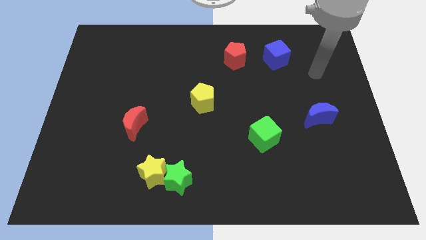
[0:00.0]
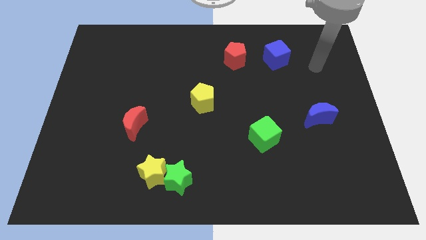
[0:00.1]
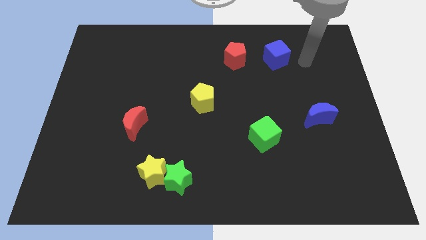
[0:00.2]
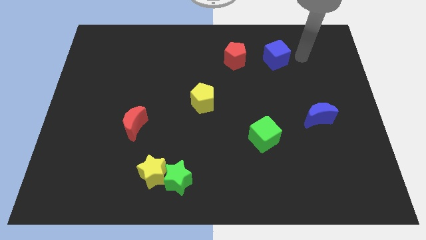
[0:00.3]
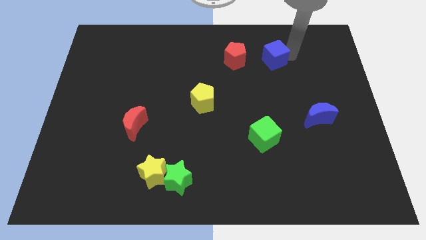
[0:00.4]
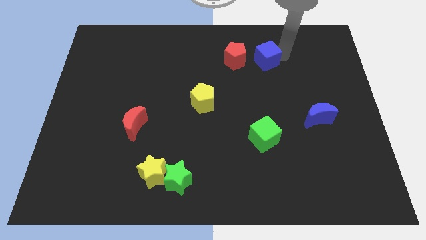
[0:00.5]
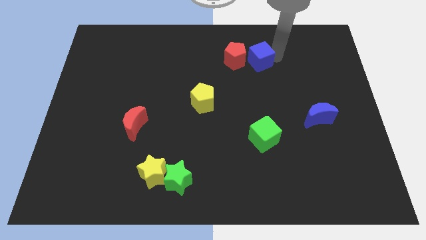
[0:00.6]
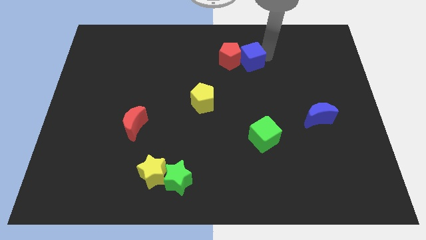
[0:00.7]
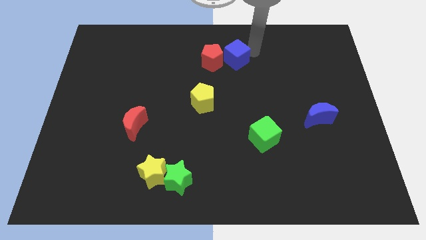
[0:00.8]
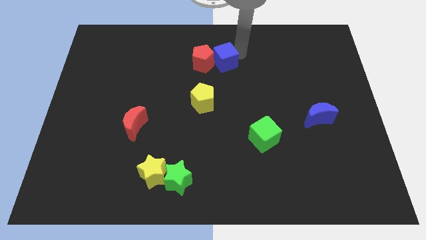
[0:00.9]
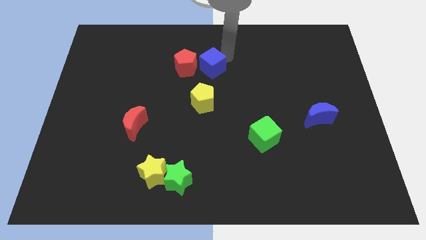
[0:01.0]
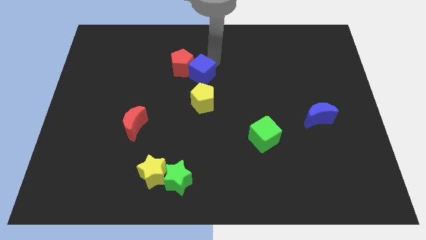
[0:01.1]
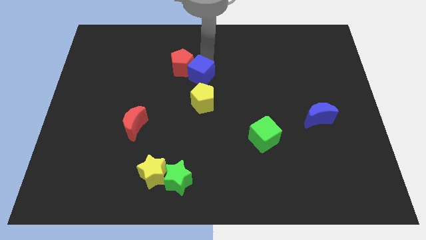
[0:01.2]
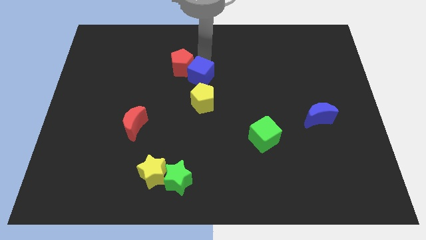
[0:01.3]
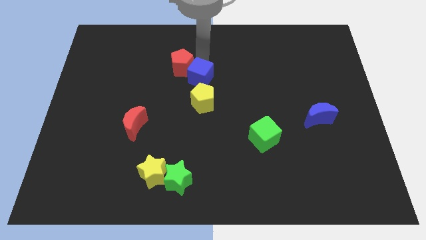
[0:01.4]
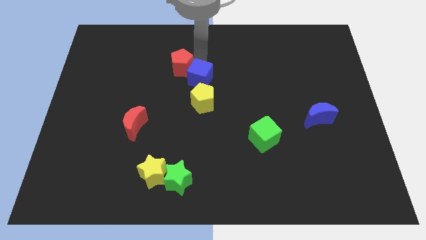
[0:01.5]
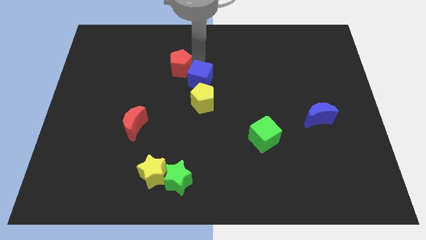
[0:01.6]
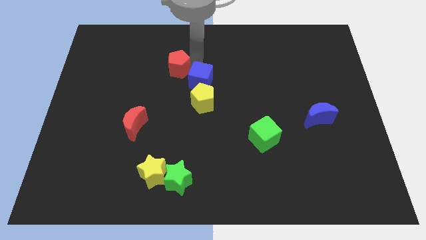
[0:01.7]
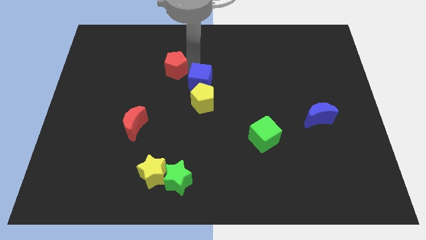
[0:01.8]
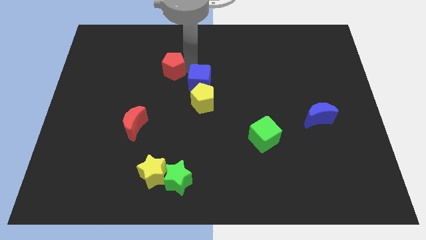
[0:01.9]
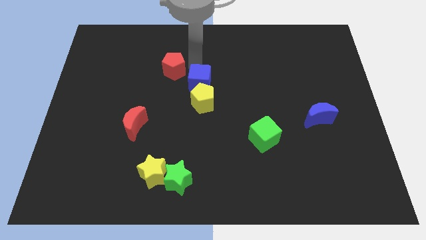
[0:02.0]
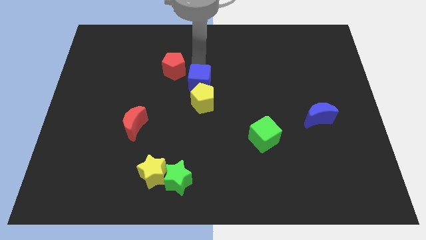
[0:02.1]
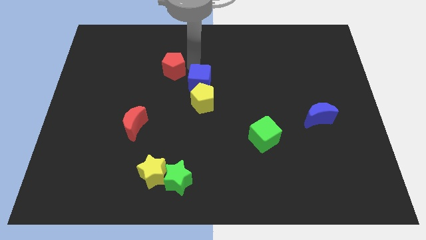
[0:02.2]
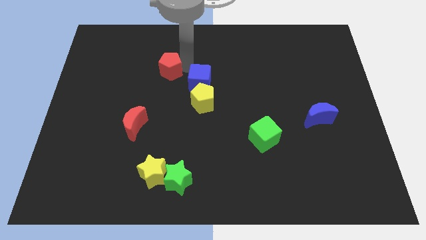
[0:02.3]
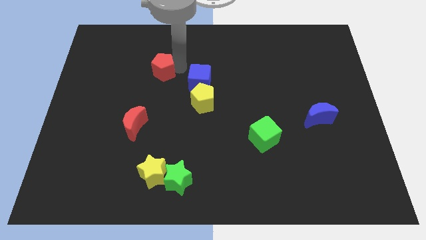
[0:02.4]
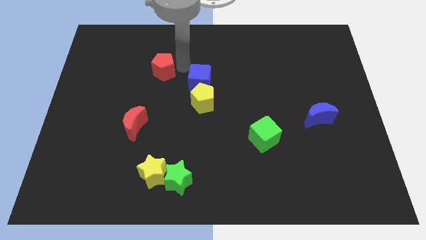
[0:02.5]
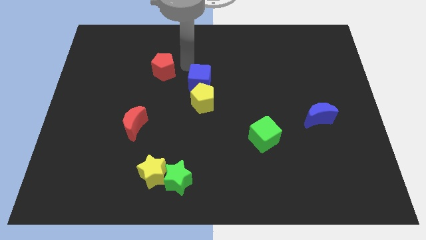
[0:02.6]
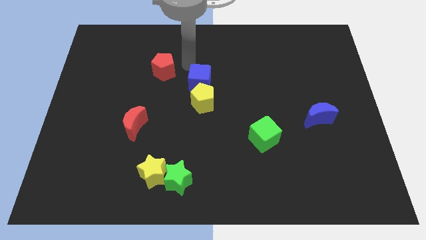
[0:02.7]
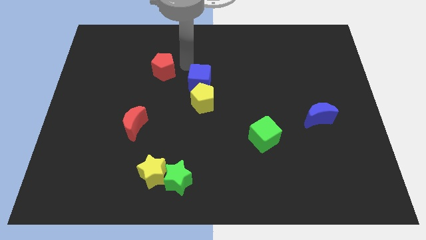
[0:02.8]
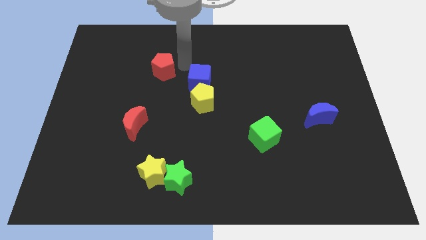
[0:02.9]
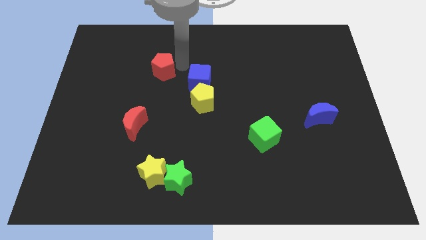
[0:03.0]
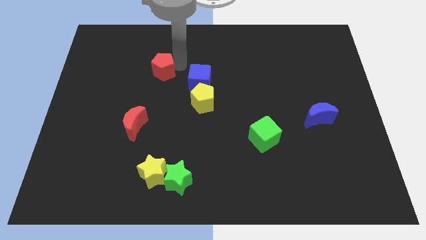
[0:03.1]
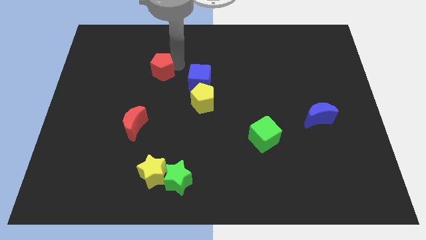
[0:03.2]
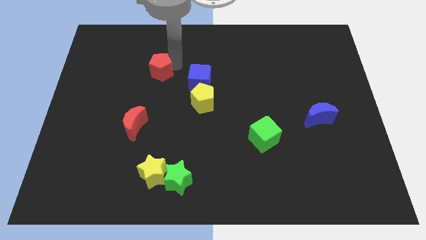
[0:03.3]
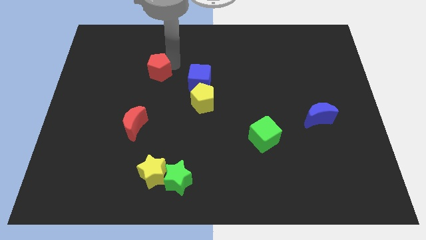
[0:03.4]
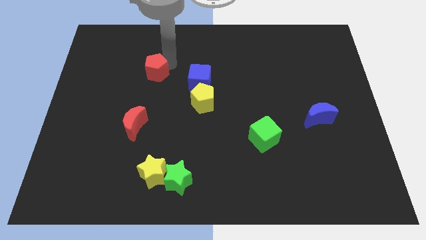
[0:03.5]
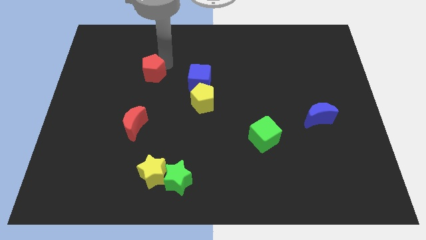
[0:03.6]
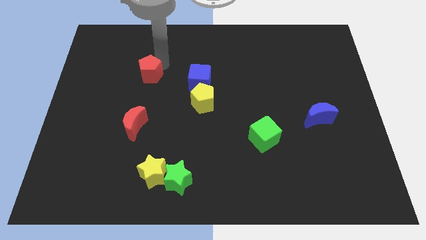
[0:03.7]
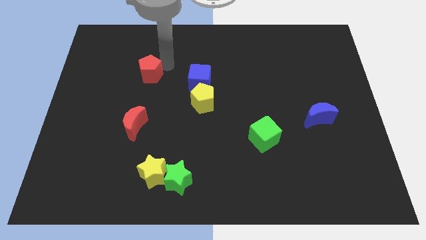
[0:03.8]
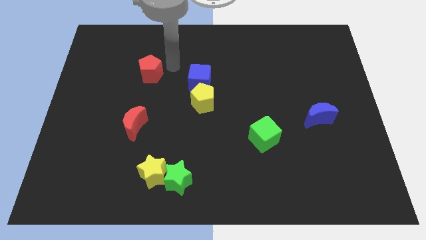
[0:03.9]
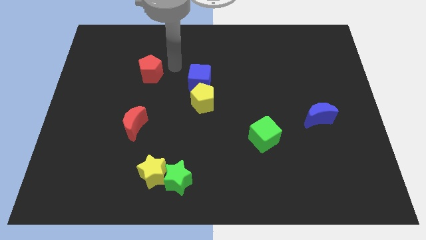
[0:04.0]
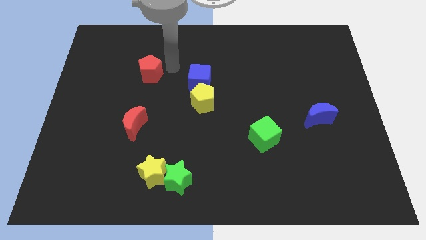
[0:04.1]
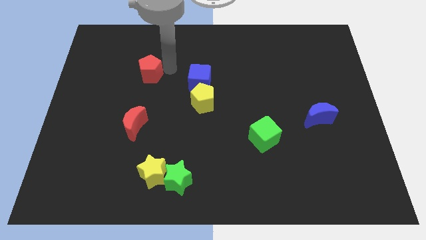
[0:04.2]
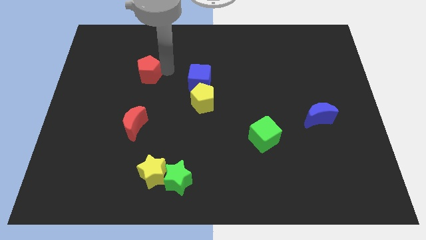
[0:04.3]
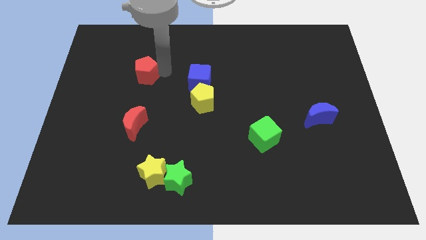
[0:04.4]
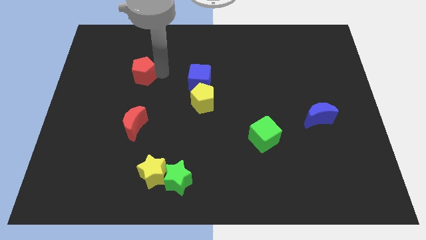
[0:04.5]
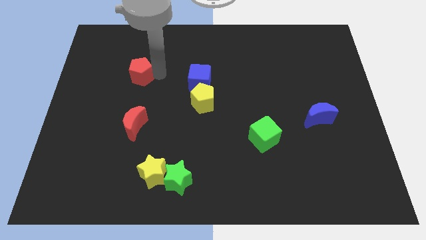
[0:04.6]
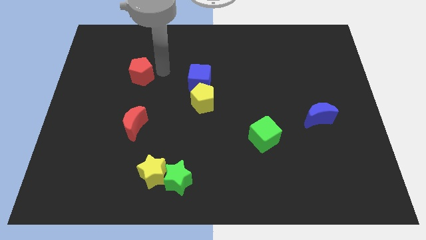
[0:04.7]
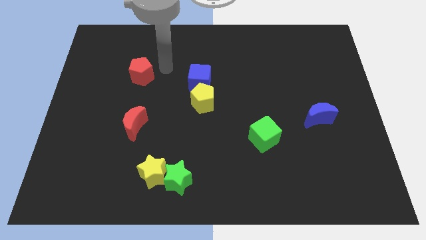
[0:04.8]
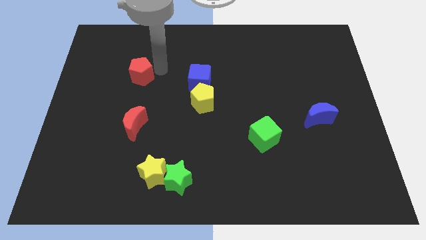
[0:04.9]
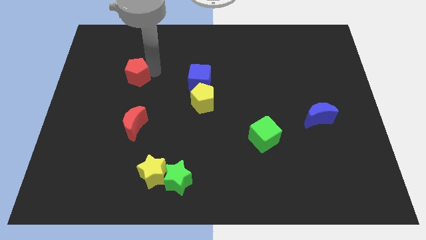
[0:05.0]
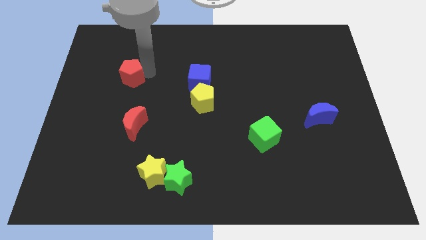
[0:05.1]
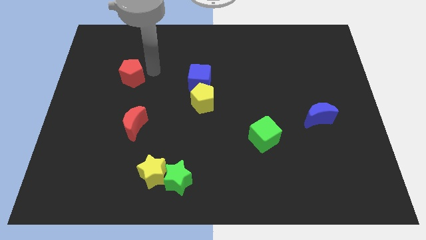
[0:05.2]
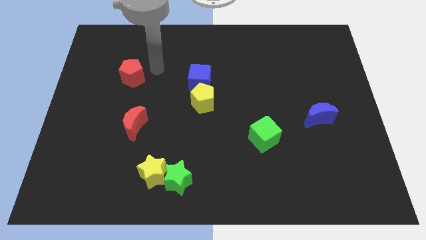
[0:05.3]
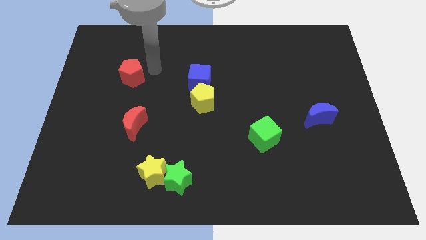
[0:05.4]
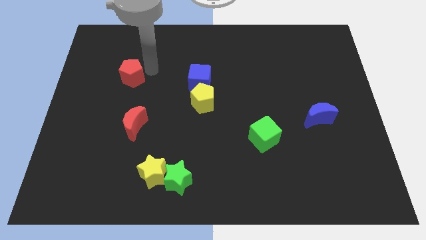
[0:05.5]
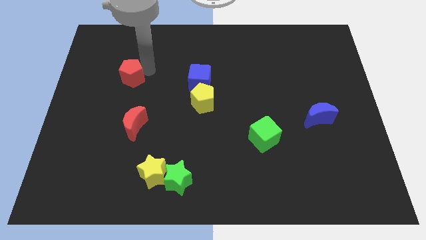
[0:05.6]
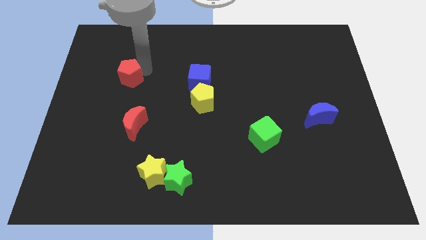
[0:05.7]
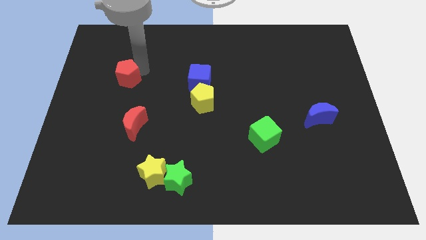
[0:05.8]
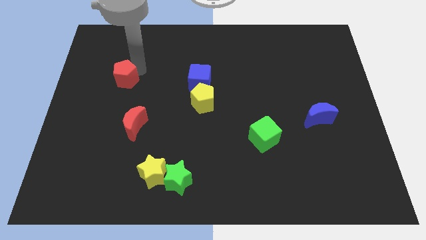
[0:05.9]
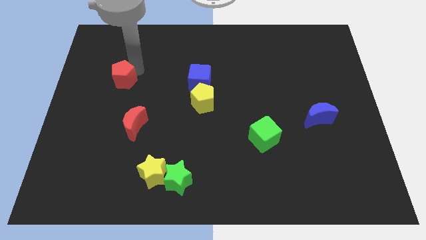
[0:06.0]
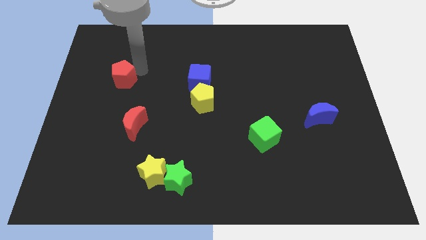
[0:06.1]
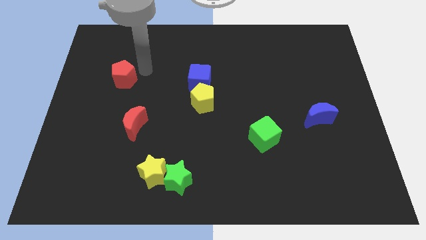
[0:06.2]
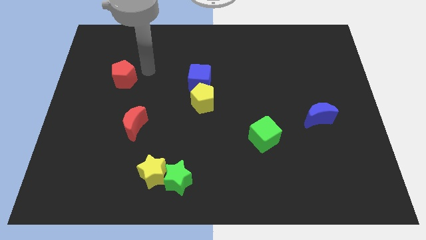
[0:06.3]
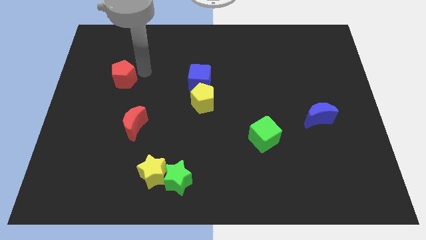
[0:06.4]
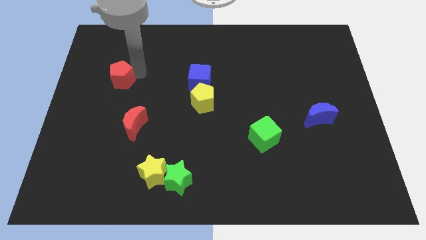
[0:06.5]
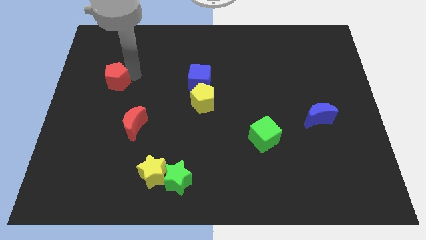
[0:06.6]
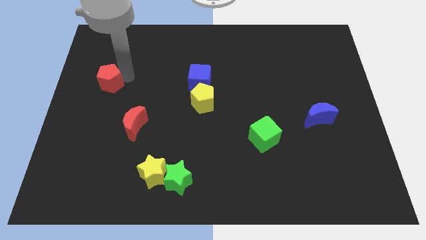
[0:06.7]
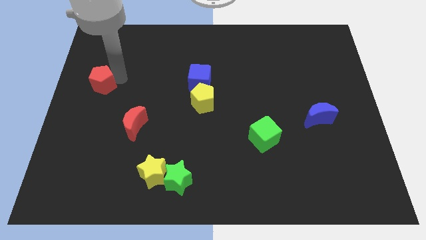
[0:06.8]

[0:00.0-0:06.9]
put the red pentagon to the left side of the board
